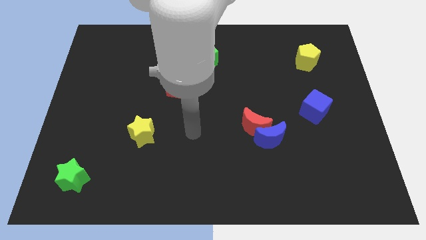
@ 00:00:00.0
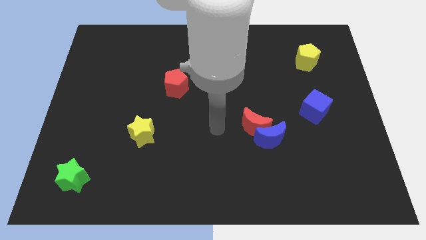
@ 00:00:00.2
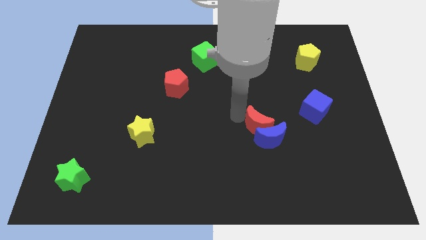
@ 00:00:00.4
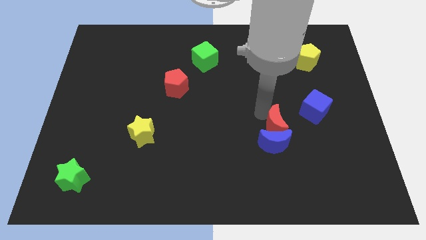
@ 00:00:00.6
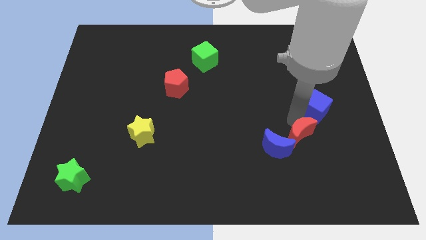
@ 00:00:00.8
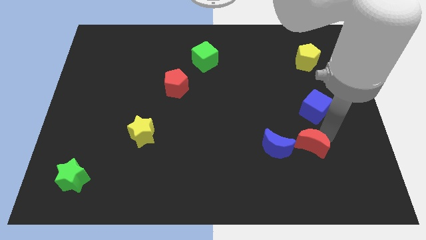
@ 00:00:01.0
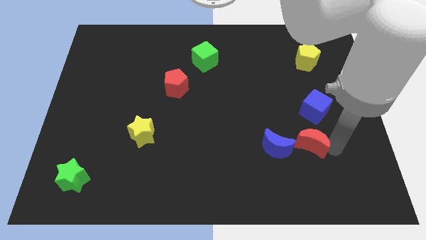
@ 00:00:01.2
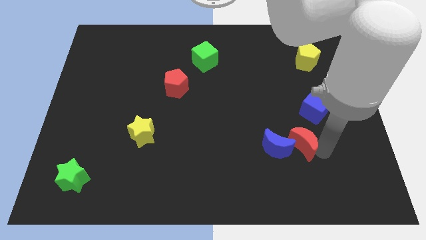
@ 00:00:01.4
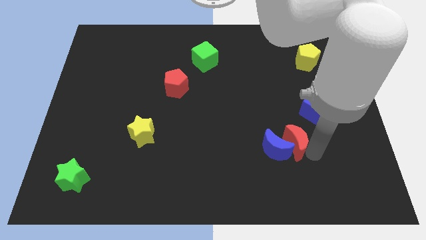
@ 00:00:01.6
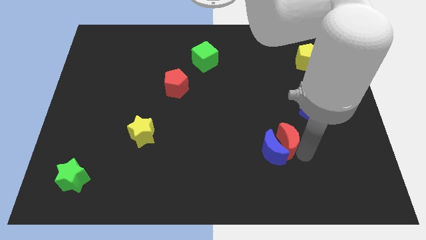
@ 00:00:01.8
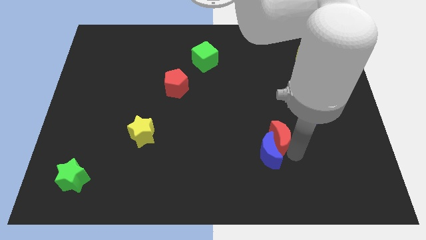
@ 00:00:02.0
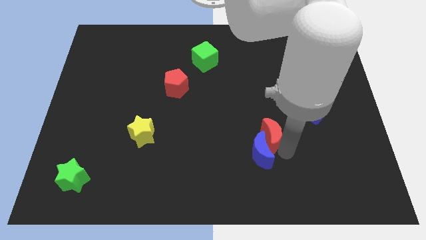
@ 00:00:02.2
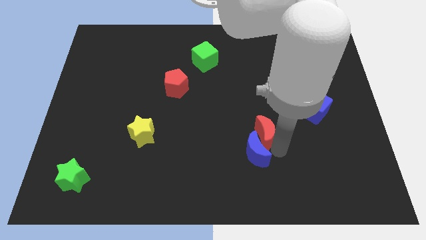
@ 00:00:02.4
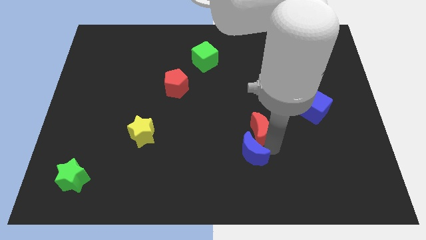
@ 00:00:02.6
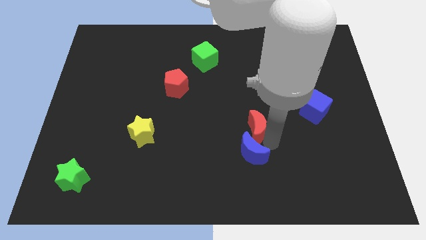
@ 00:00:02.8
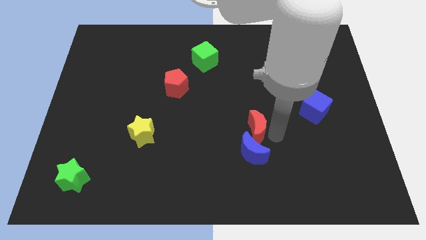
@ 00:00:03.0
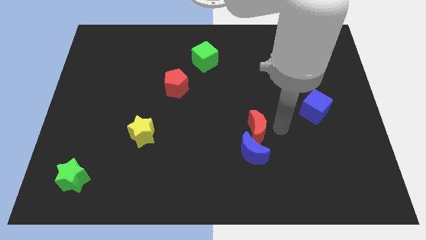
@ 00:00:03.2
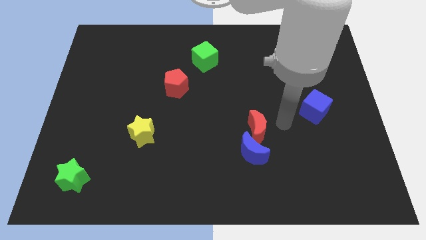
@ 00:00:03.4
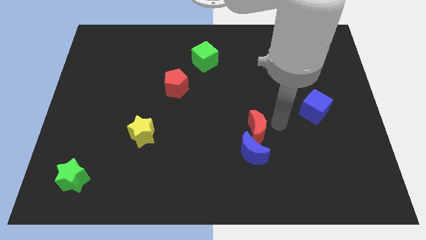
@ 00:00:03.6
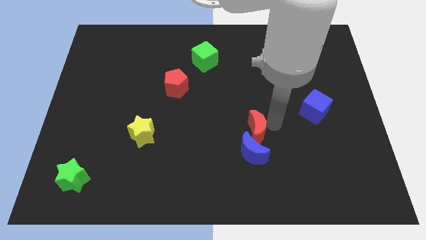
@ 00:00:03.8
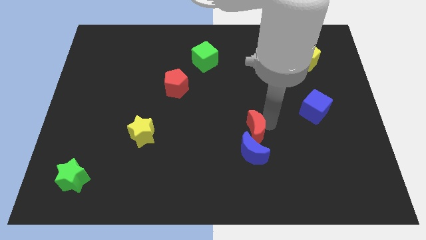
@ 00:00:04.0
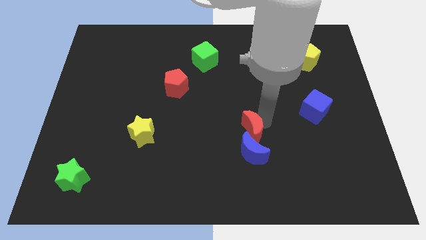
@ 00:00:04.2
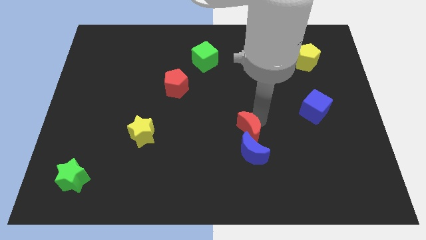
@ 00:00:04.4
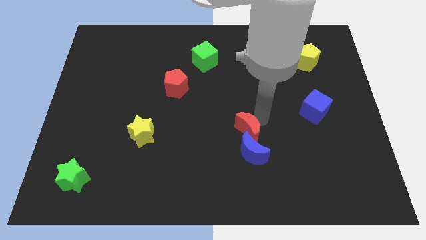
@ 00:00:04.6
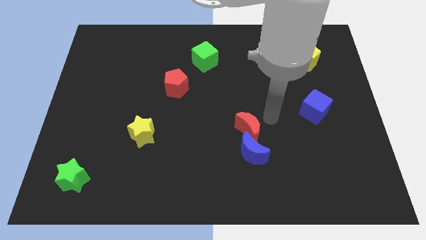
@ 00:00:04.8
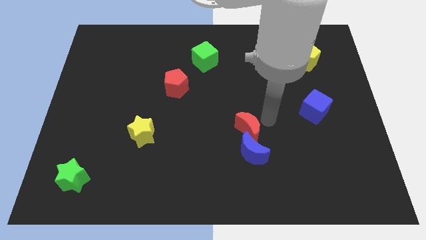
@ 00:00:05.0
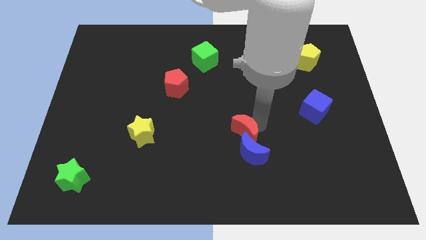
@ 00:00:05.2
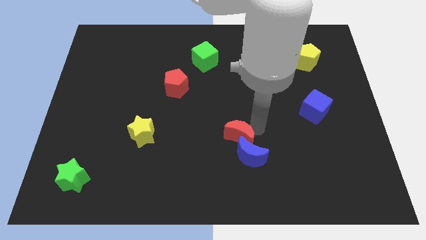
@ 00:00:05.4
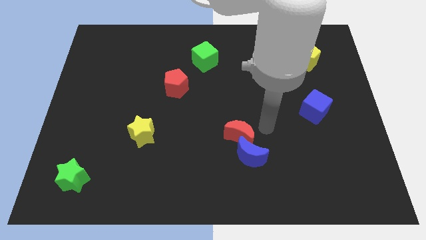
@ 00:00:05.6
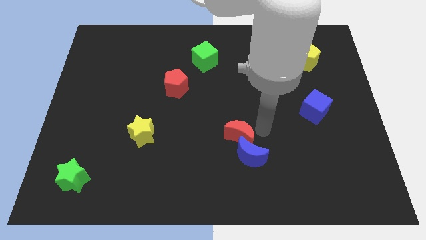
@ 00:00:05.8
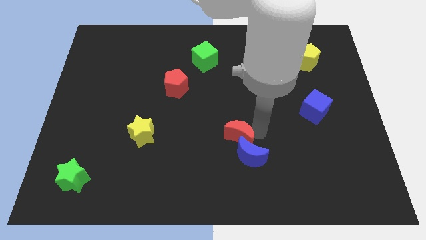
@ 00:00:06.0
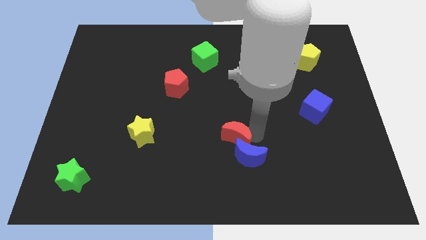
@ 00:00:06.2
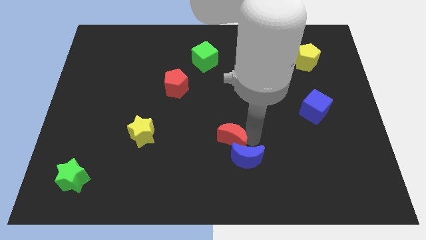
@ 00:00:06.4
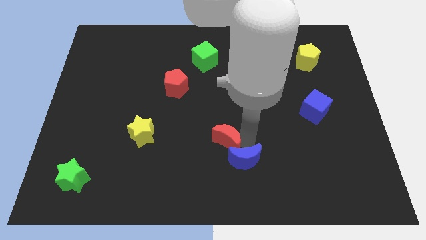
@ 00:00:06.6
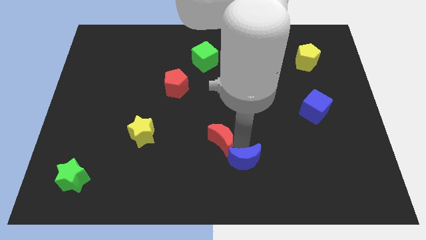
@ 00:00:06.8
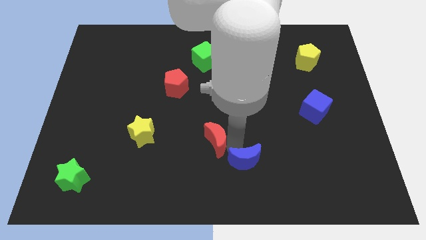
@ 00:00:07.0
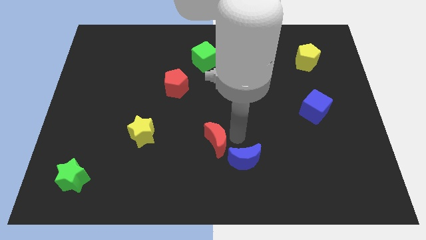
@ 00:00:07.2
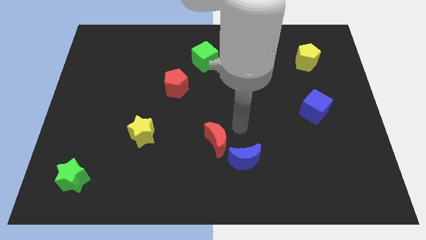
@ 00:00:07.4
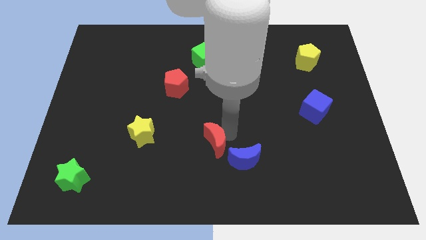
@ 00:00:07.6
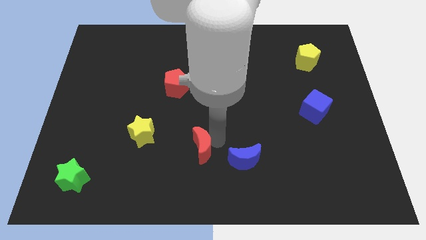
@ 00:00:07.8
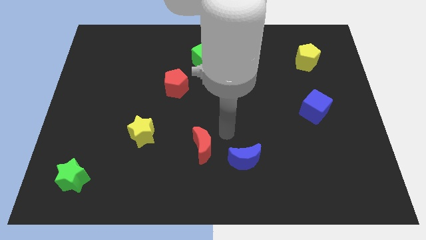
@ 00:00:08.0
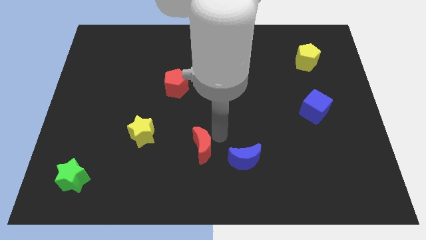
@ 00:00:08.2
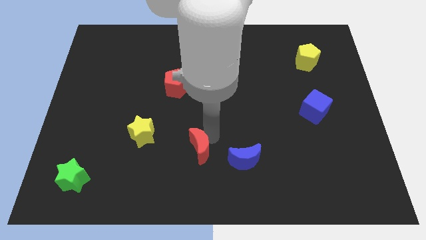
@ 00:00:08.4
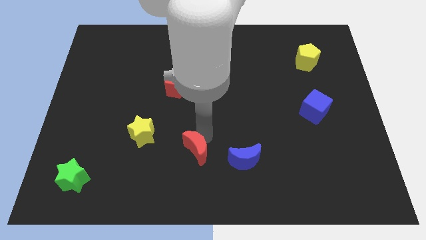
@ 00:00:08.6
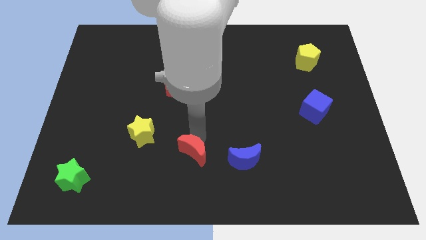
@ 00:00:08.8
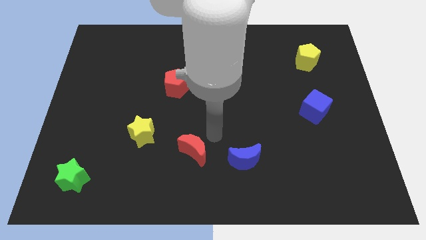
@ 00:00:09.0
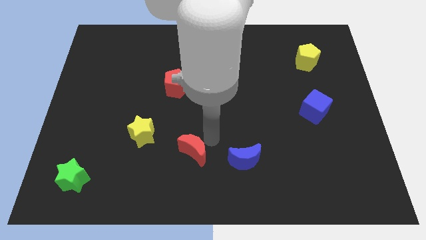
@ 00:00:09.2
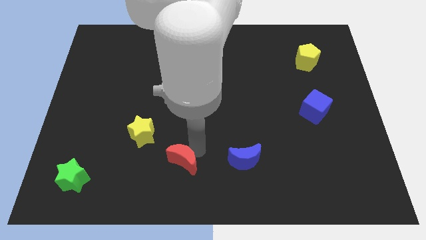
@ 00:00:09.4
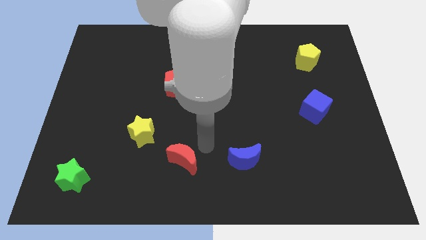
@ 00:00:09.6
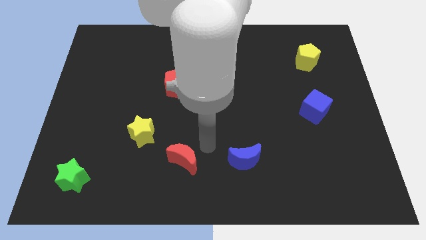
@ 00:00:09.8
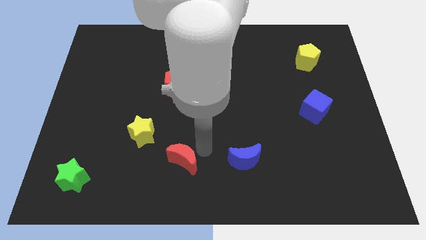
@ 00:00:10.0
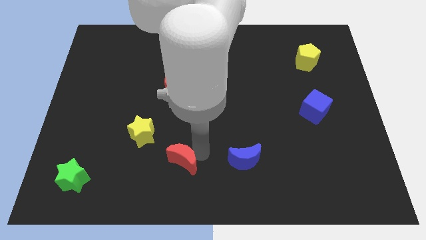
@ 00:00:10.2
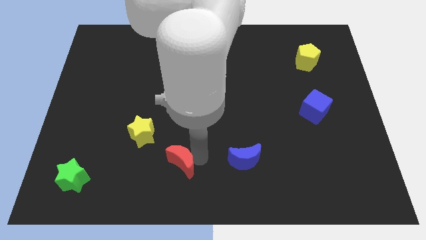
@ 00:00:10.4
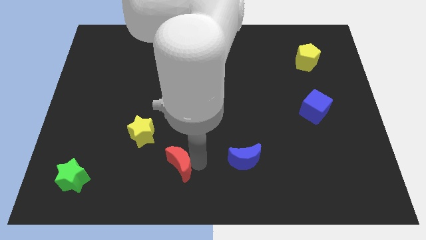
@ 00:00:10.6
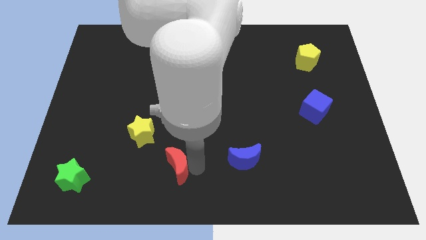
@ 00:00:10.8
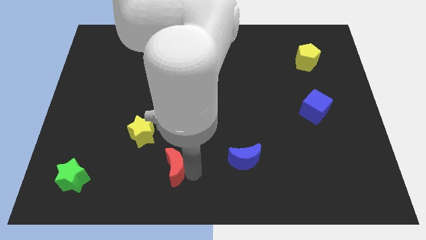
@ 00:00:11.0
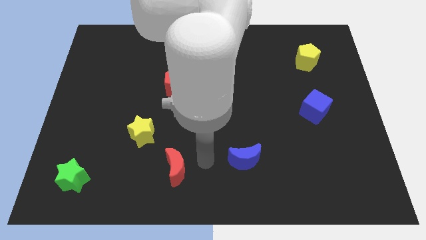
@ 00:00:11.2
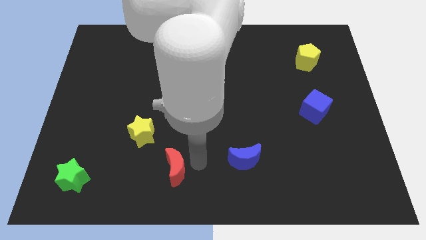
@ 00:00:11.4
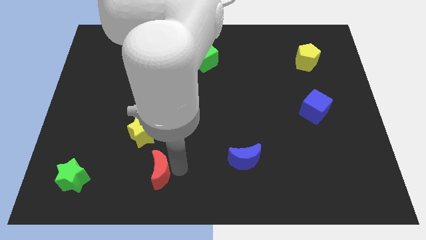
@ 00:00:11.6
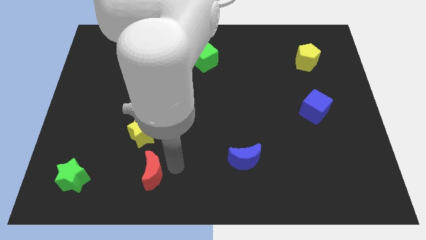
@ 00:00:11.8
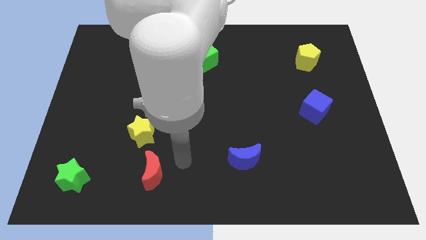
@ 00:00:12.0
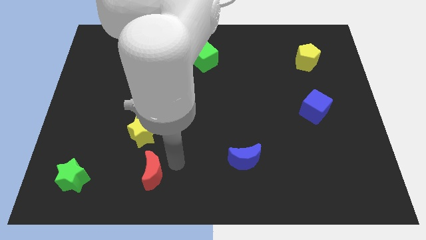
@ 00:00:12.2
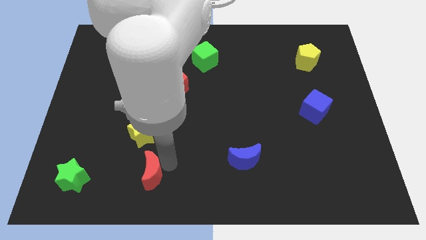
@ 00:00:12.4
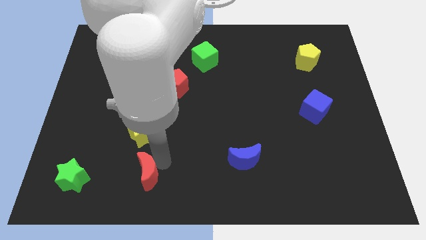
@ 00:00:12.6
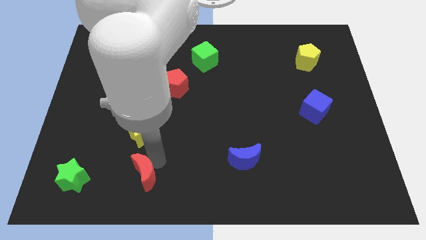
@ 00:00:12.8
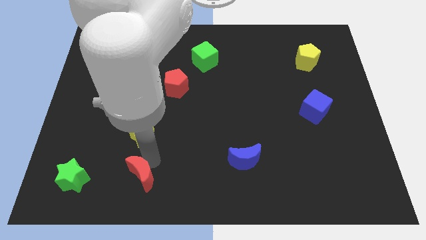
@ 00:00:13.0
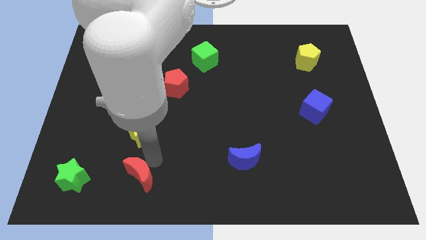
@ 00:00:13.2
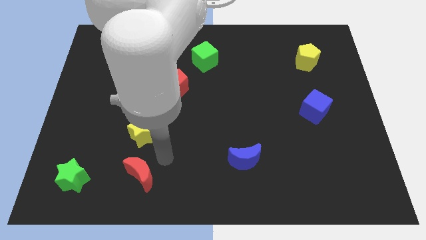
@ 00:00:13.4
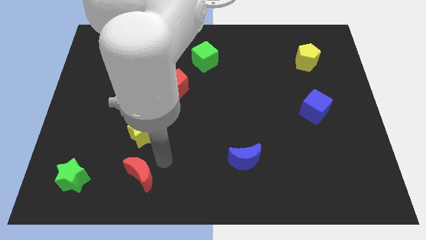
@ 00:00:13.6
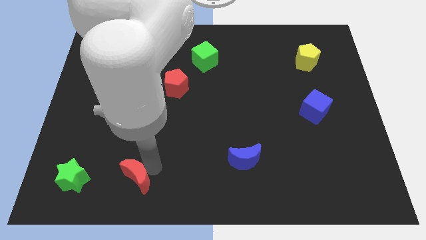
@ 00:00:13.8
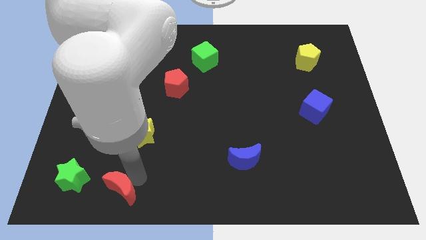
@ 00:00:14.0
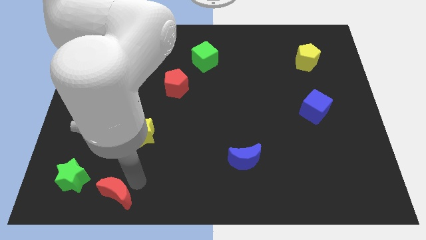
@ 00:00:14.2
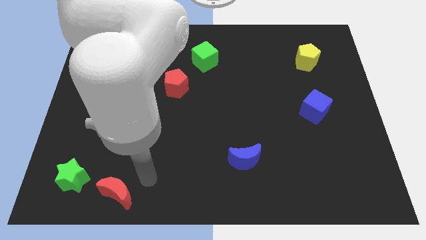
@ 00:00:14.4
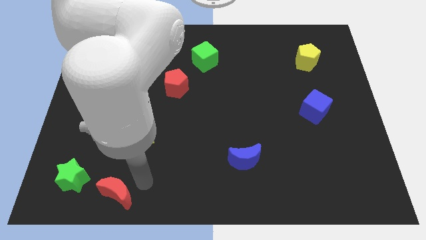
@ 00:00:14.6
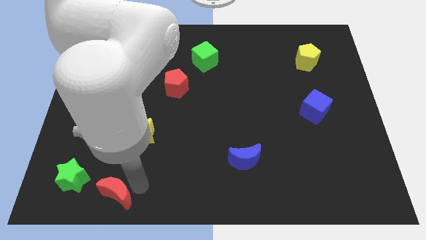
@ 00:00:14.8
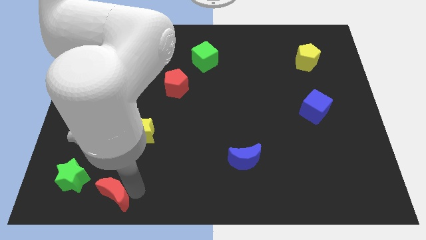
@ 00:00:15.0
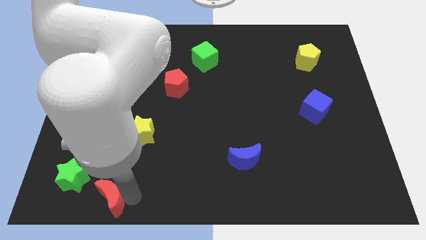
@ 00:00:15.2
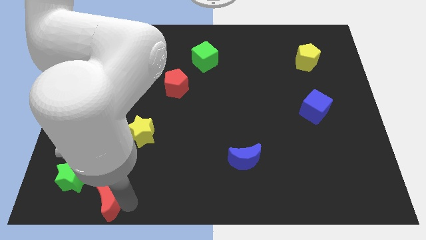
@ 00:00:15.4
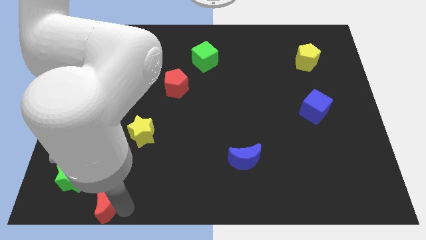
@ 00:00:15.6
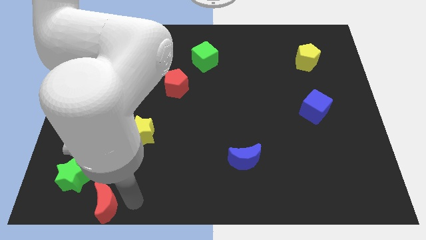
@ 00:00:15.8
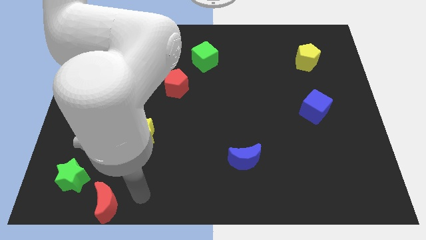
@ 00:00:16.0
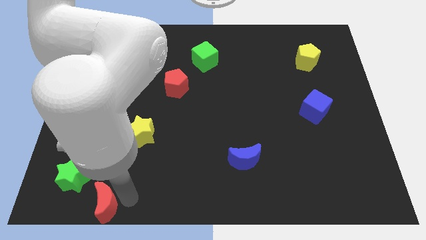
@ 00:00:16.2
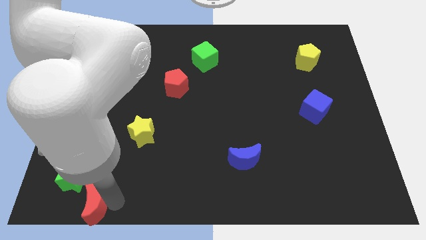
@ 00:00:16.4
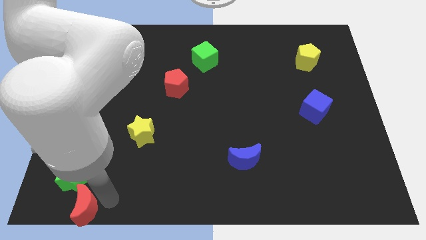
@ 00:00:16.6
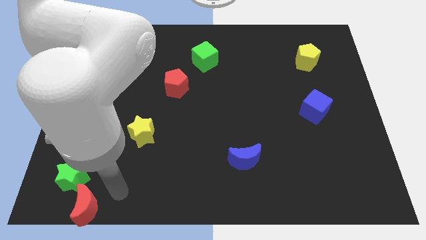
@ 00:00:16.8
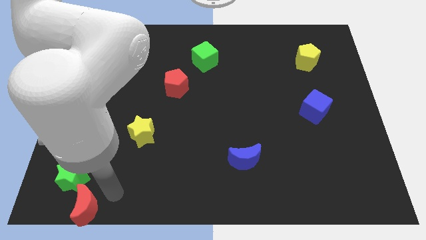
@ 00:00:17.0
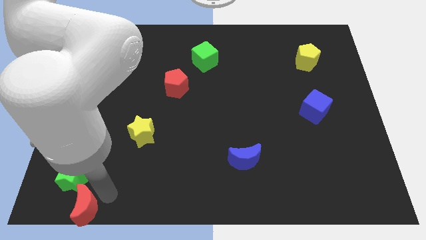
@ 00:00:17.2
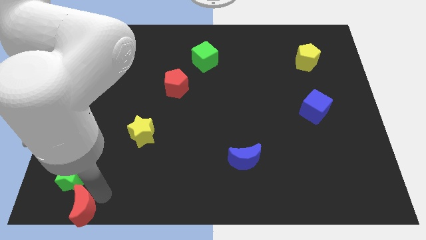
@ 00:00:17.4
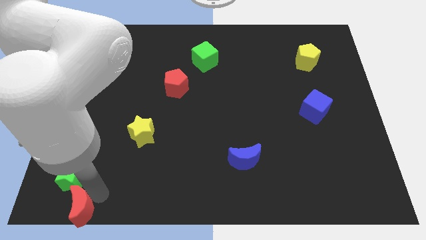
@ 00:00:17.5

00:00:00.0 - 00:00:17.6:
put the red moon to the bottom left corner
